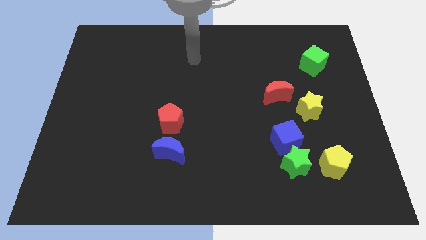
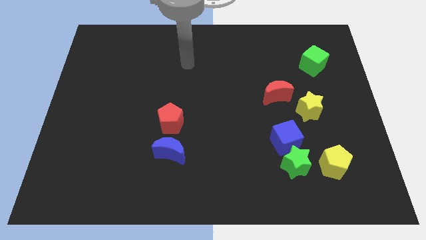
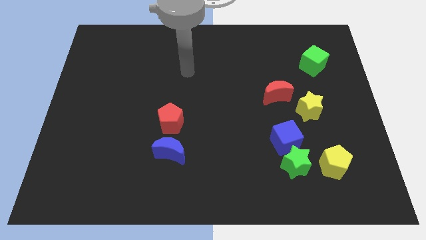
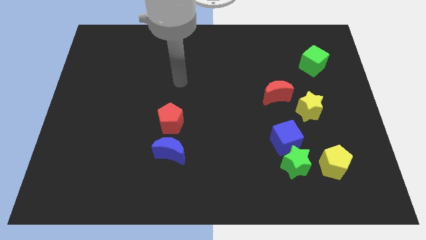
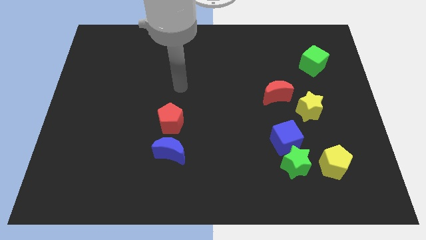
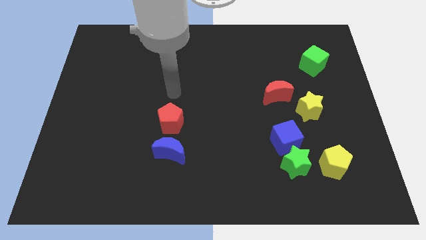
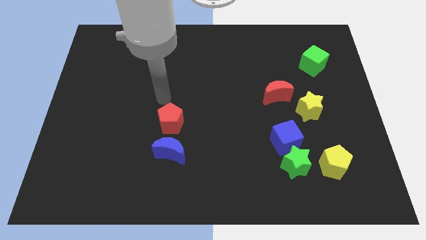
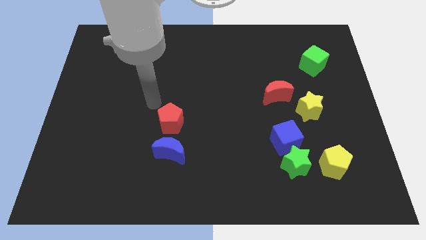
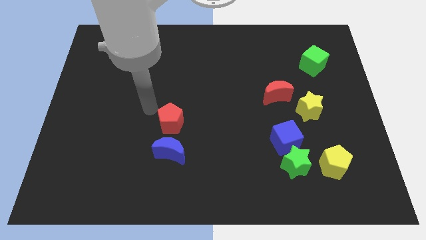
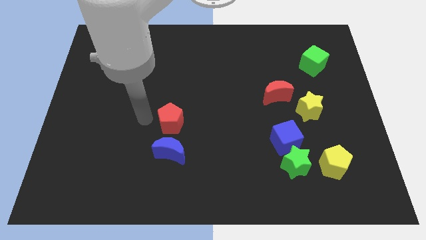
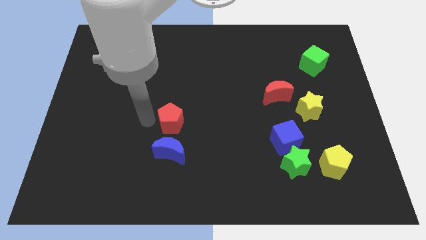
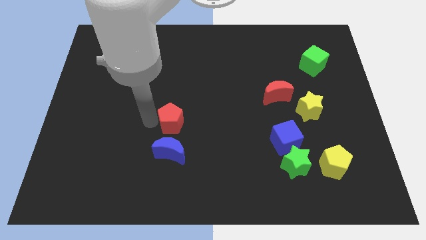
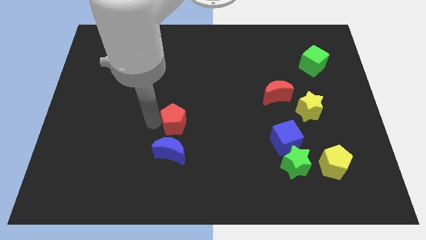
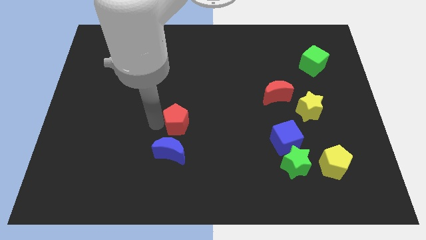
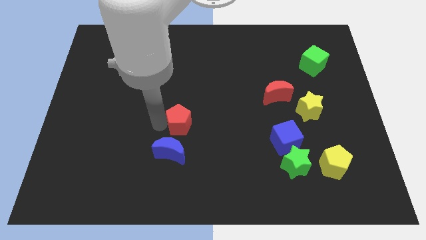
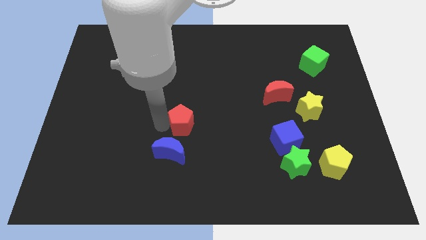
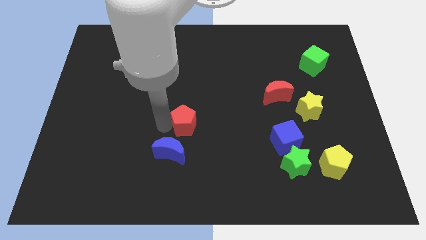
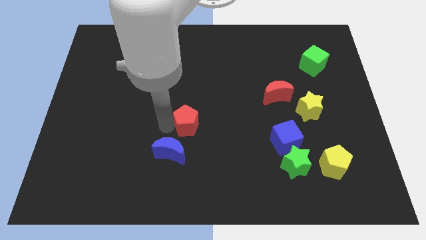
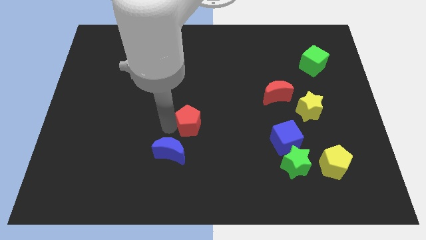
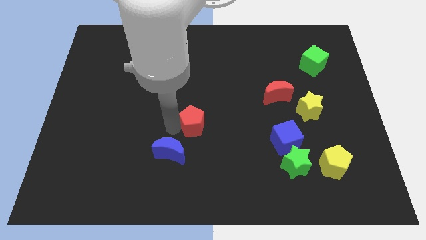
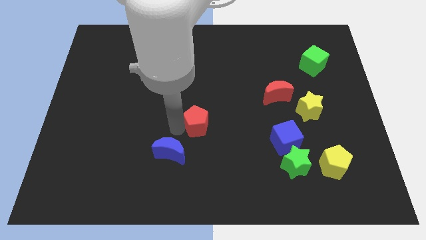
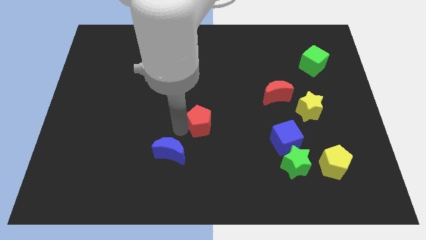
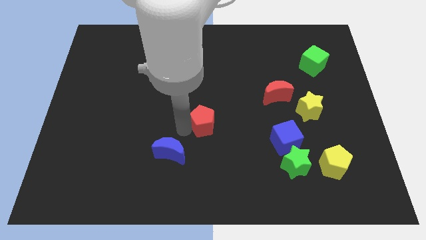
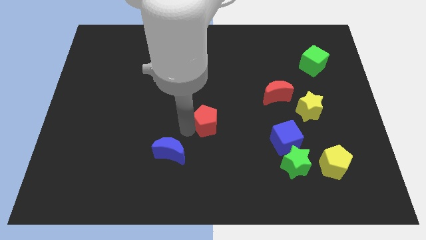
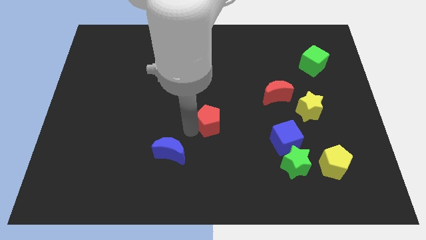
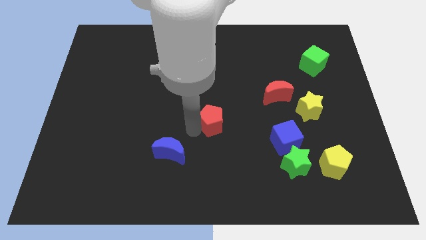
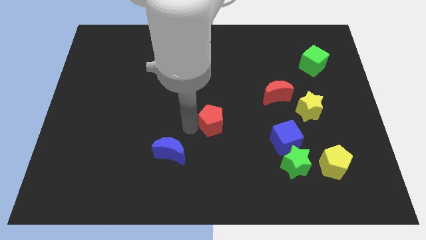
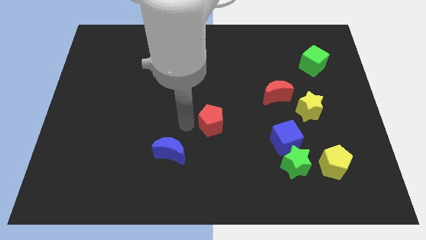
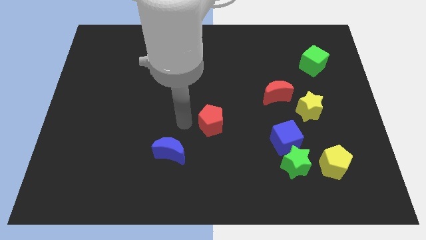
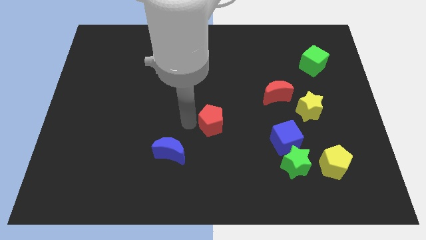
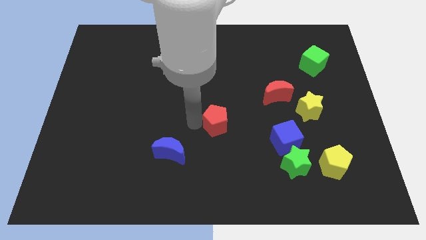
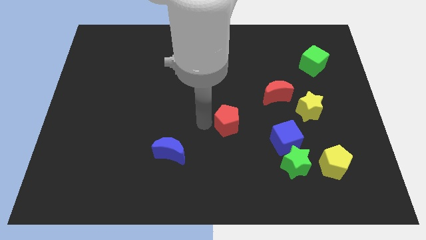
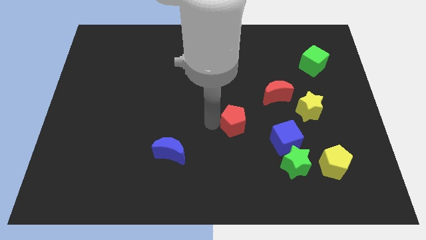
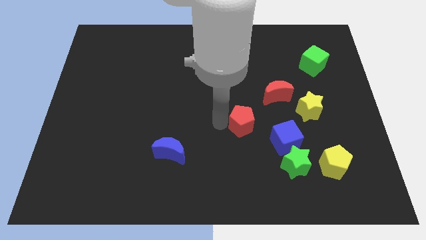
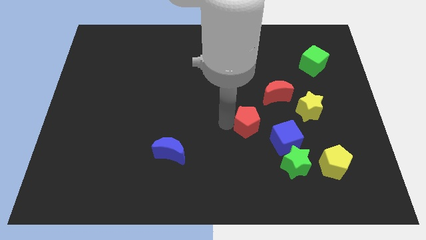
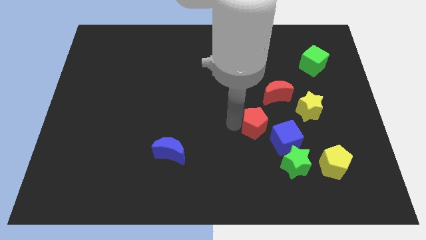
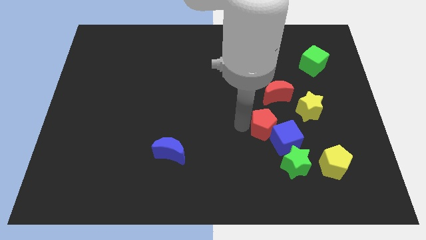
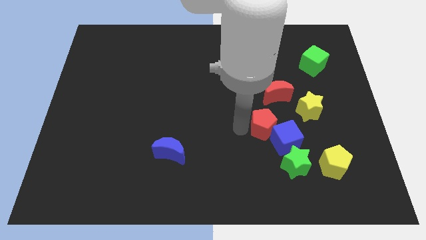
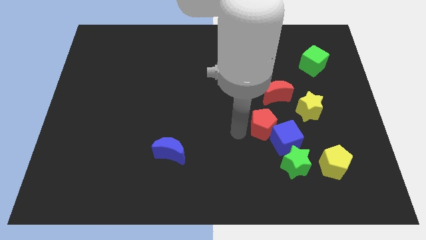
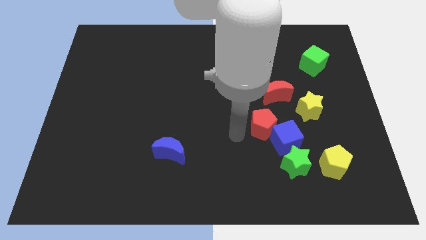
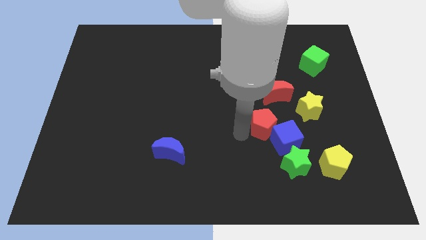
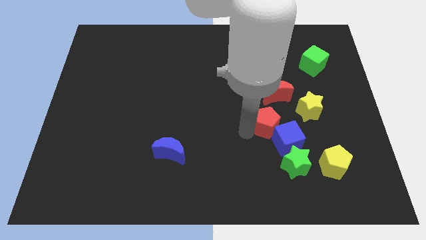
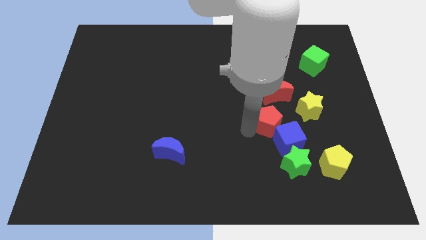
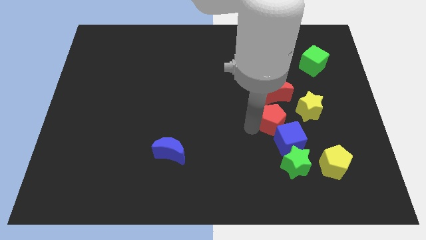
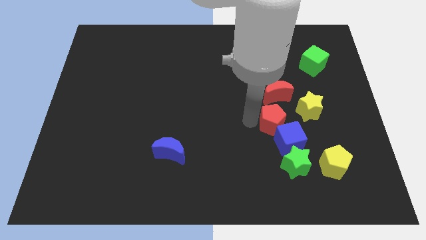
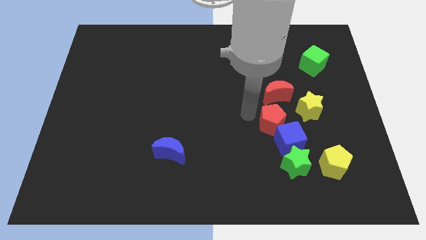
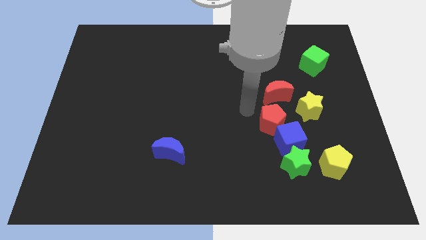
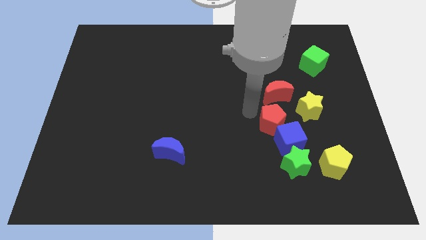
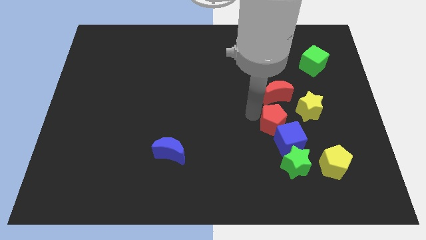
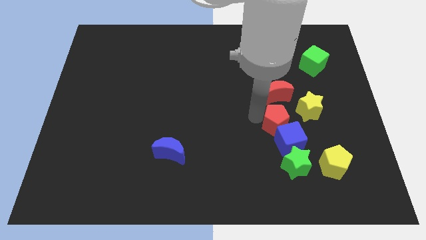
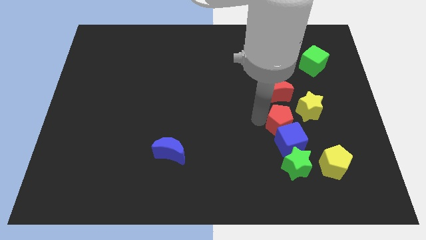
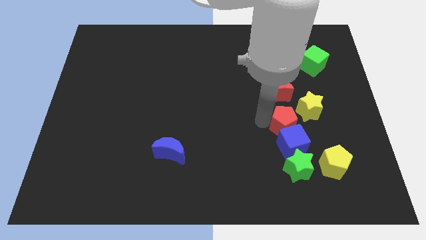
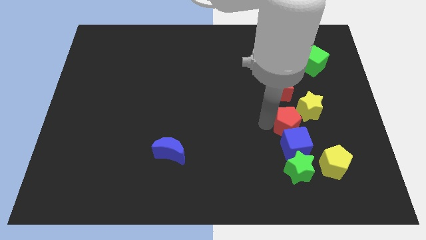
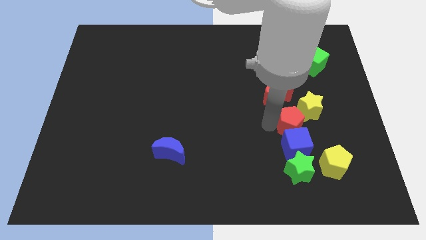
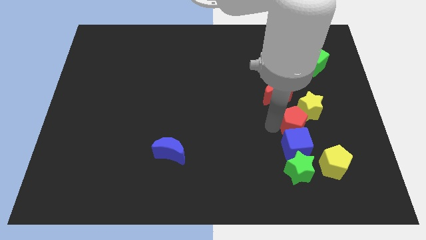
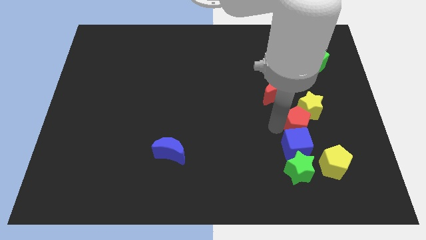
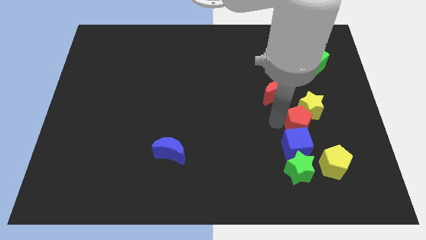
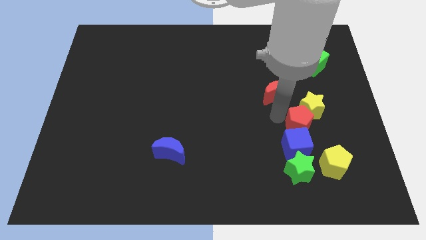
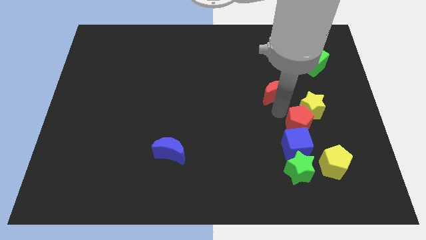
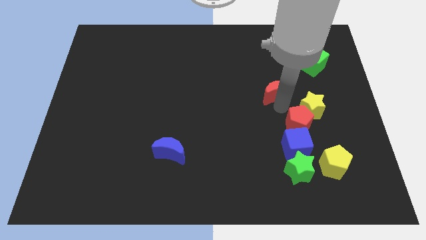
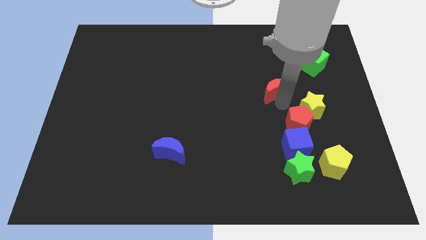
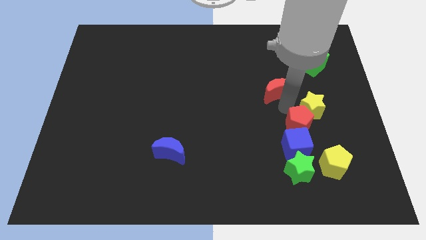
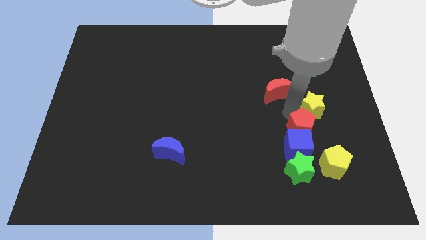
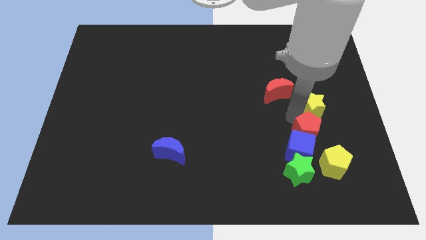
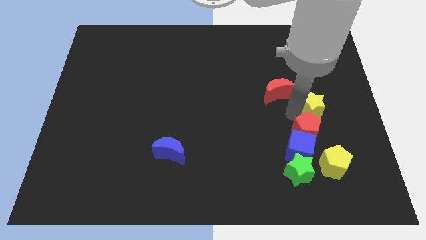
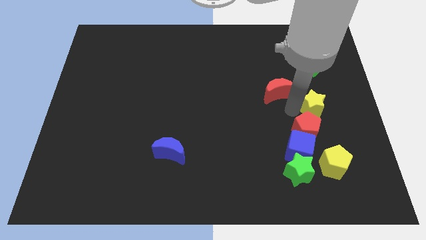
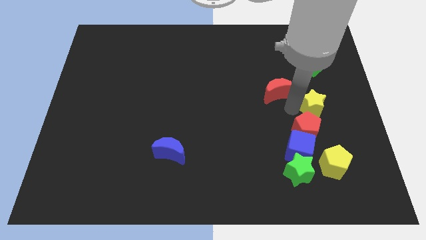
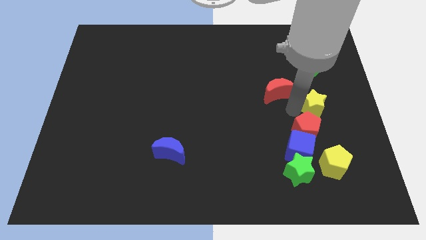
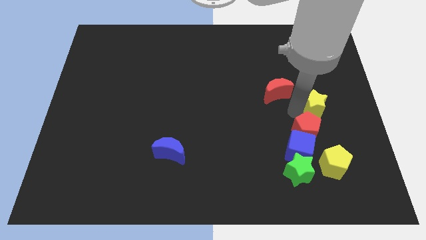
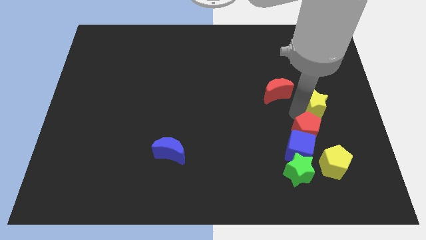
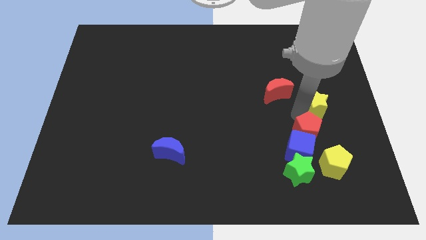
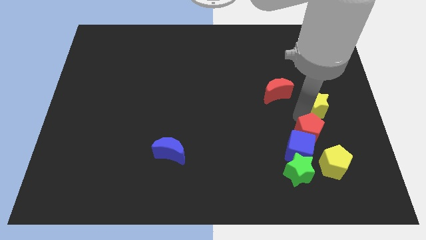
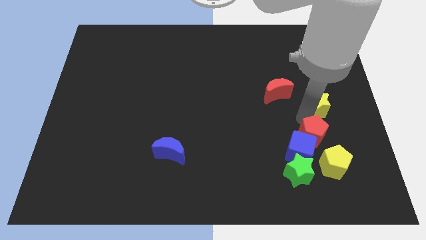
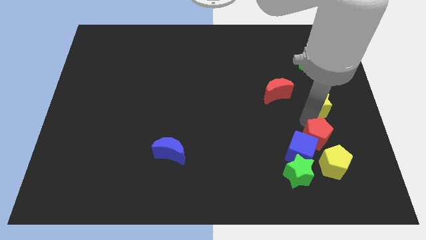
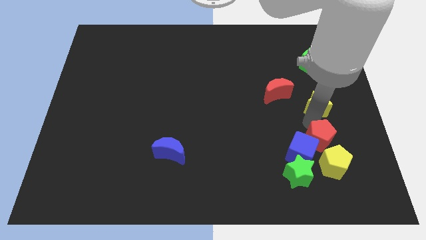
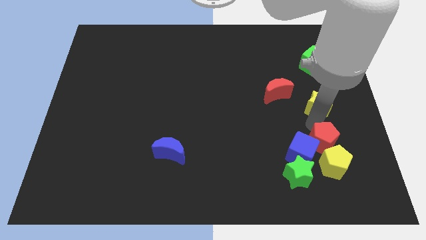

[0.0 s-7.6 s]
slide the red pentagon next to the yellow pentagon
